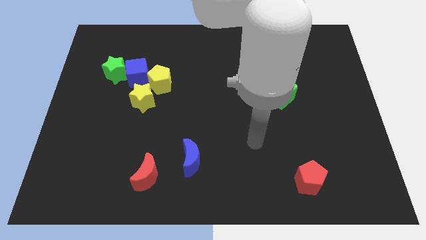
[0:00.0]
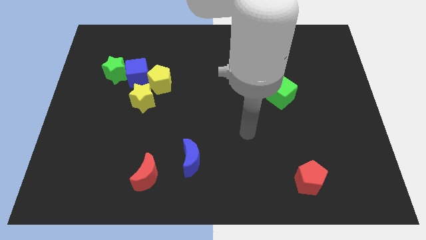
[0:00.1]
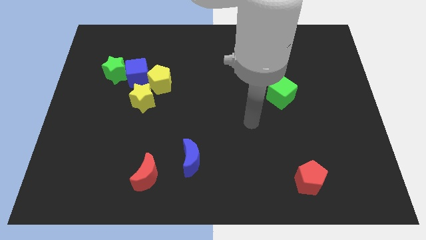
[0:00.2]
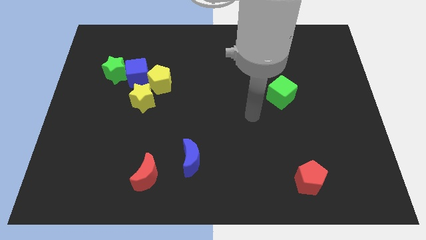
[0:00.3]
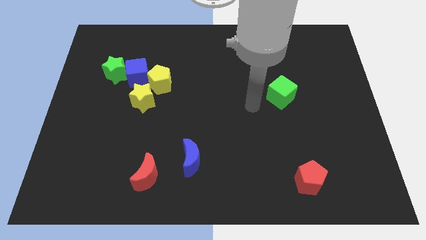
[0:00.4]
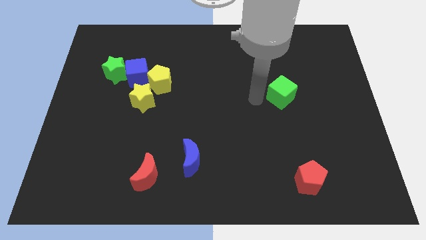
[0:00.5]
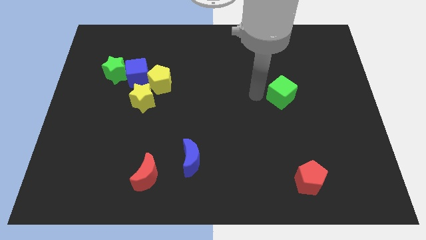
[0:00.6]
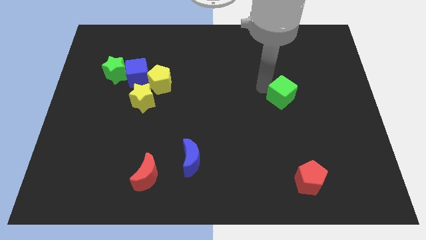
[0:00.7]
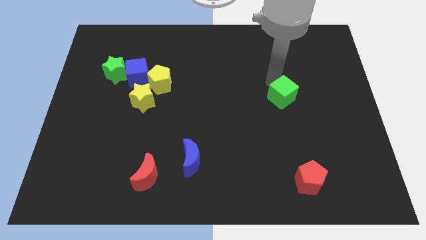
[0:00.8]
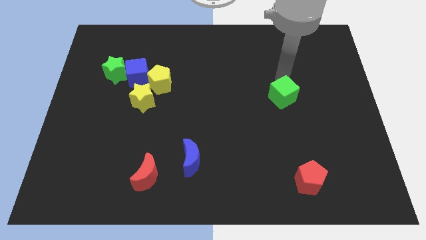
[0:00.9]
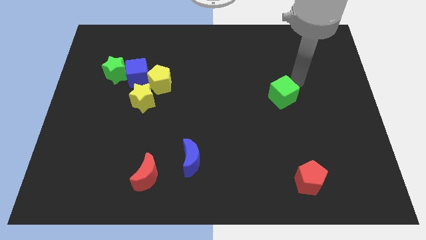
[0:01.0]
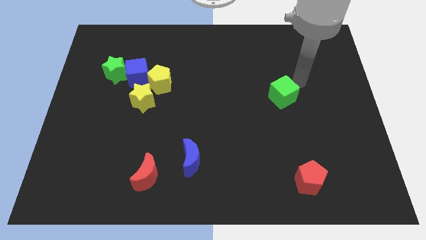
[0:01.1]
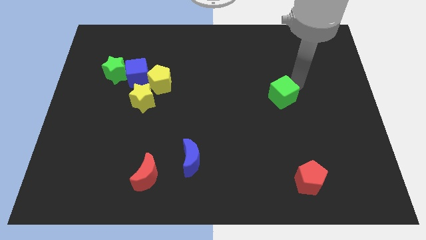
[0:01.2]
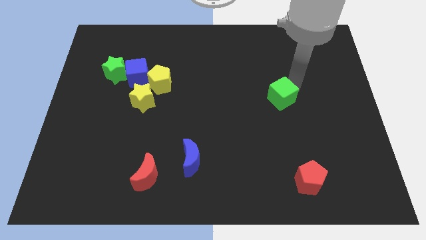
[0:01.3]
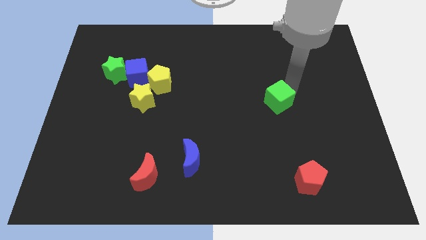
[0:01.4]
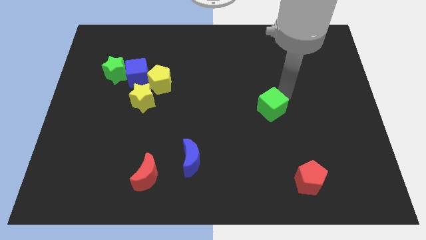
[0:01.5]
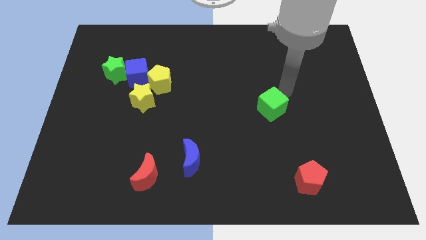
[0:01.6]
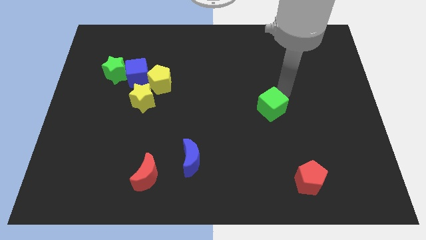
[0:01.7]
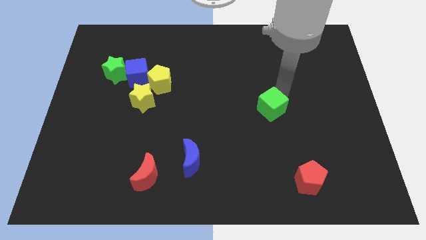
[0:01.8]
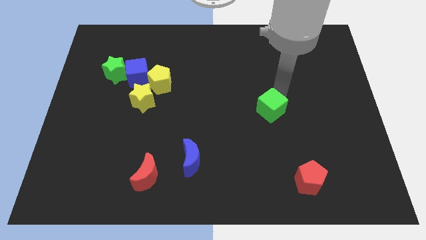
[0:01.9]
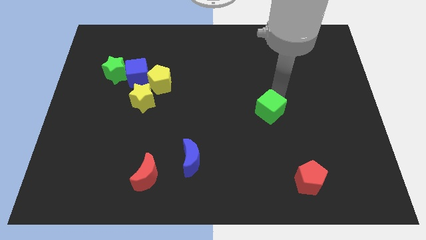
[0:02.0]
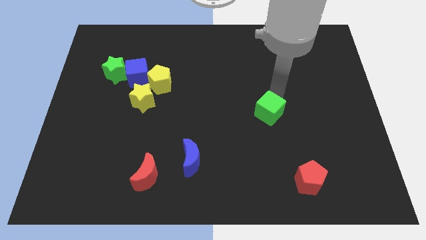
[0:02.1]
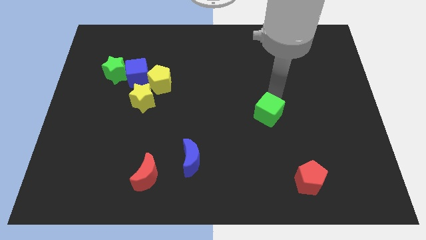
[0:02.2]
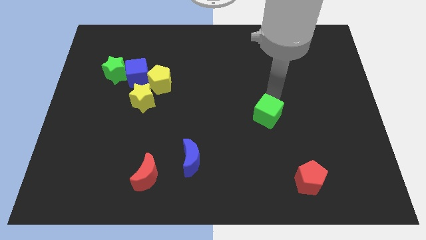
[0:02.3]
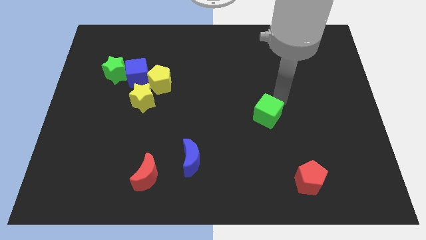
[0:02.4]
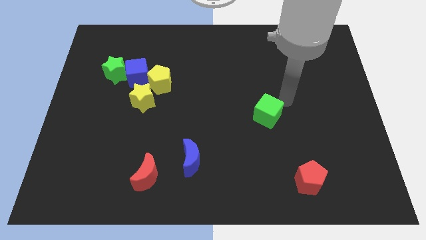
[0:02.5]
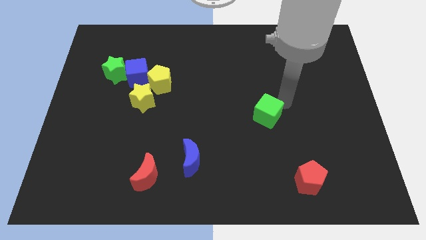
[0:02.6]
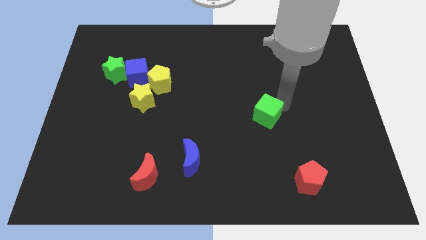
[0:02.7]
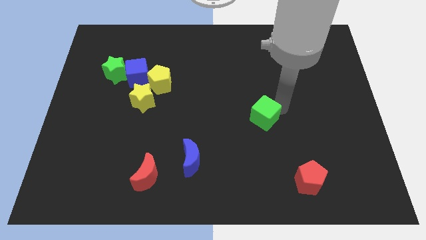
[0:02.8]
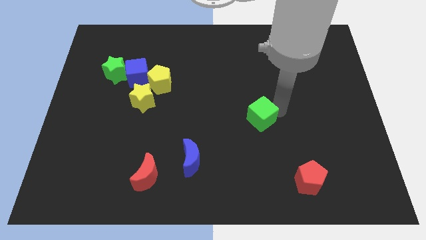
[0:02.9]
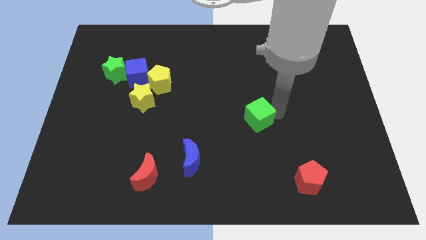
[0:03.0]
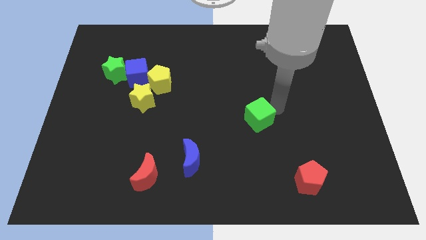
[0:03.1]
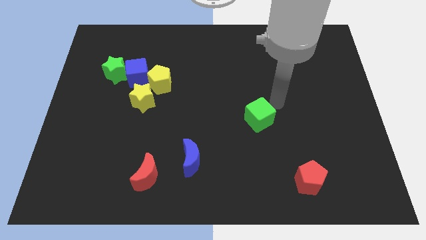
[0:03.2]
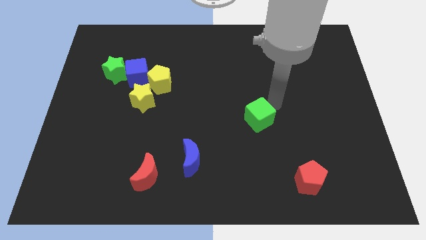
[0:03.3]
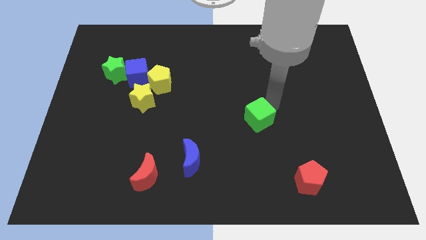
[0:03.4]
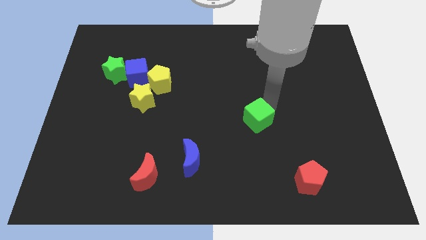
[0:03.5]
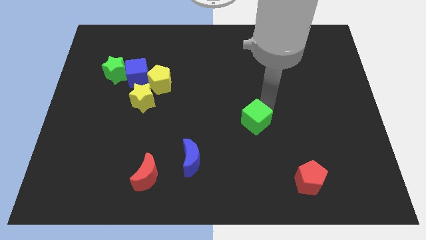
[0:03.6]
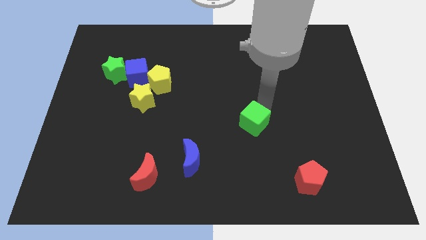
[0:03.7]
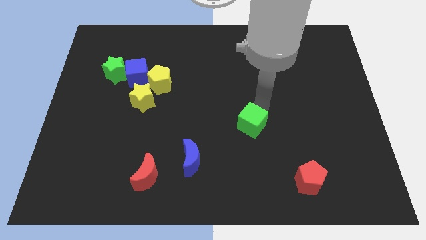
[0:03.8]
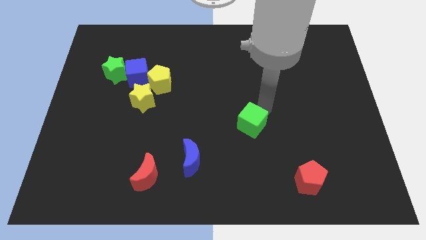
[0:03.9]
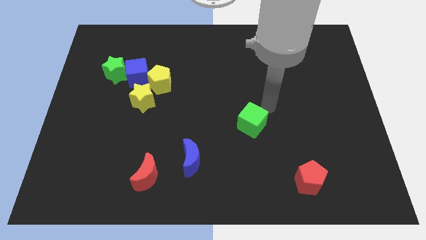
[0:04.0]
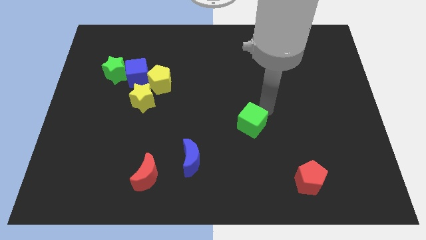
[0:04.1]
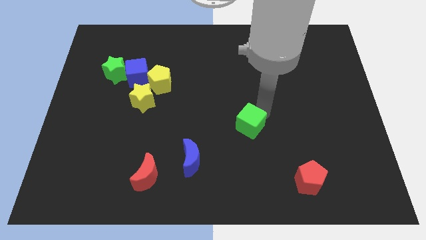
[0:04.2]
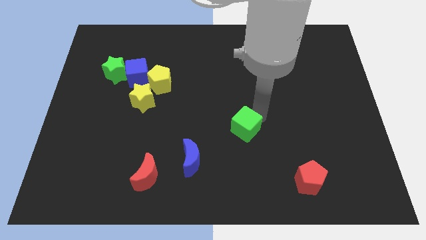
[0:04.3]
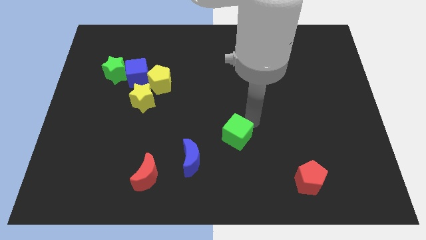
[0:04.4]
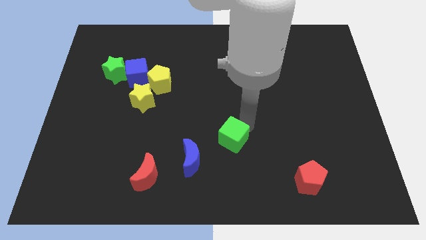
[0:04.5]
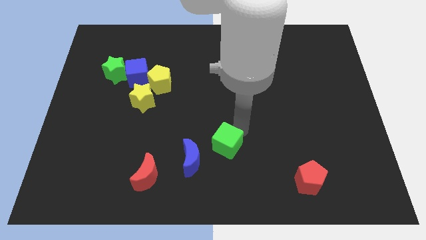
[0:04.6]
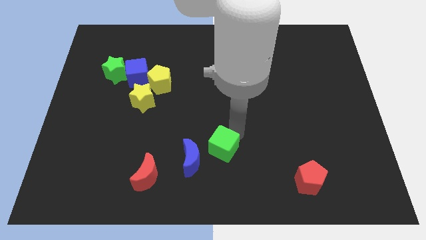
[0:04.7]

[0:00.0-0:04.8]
slide the green cube downwards and left diagonally

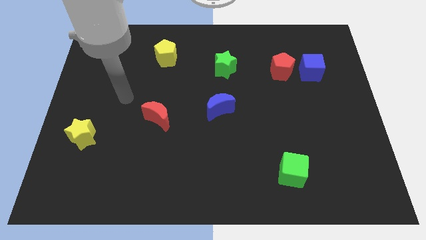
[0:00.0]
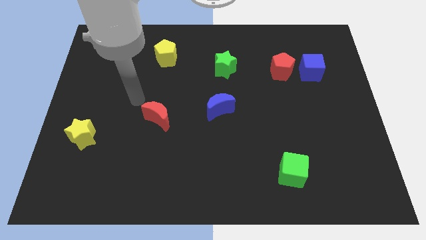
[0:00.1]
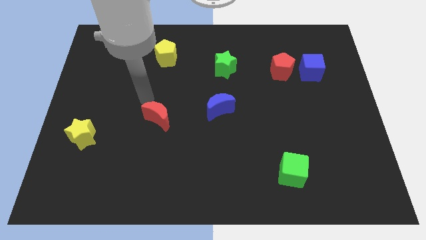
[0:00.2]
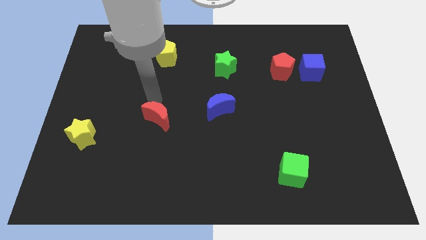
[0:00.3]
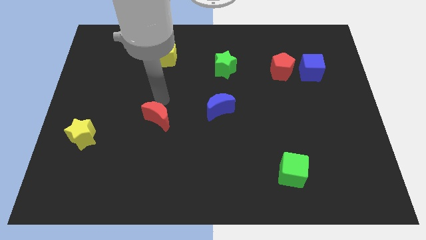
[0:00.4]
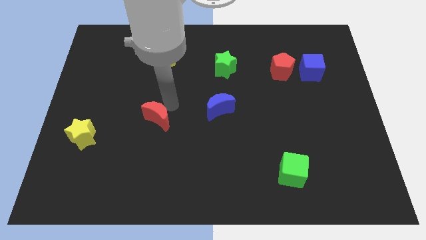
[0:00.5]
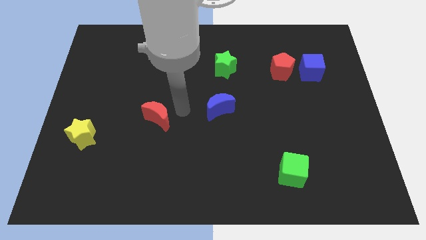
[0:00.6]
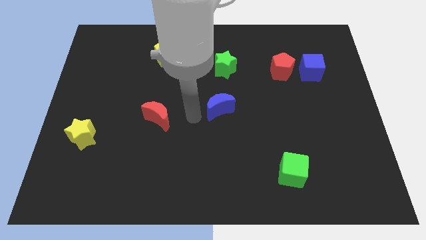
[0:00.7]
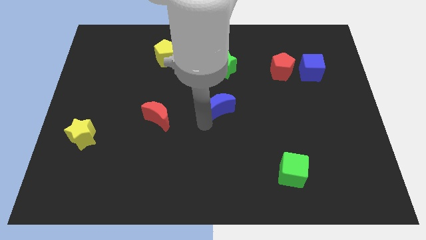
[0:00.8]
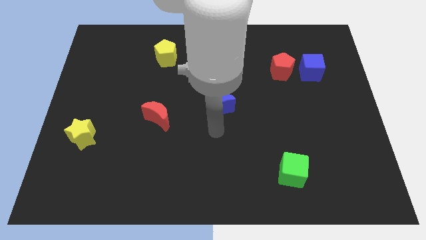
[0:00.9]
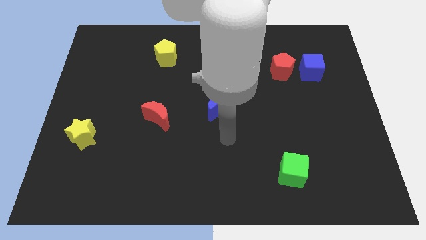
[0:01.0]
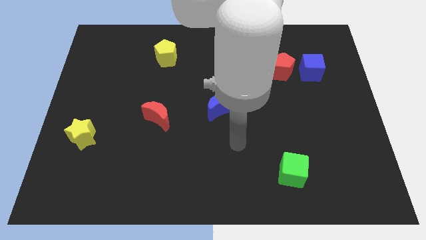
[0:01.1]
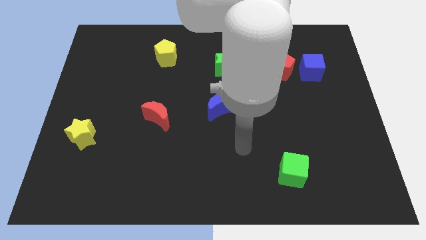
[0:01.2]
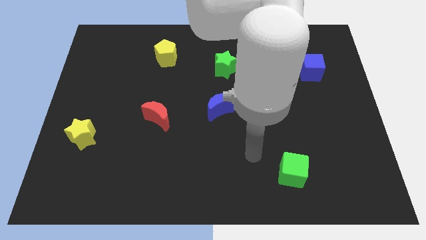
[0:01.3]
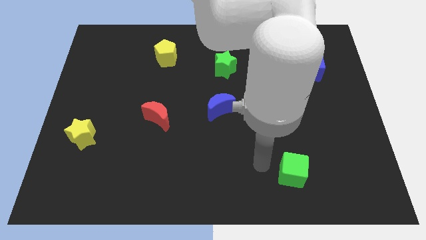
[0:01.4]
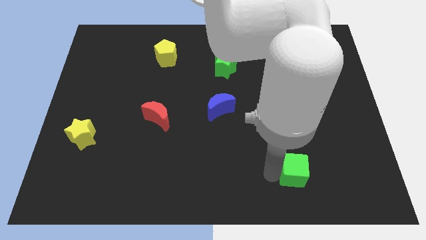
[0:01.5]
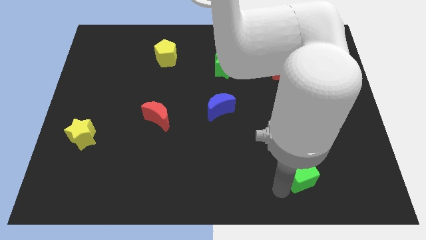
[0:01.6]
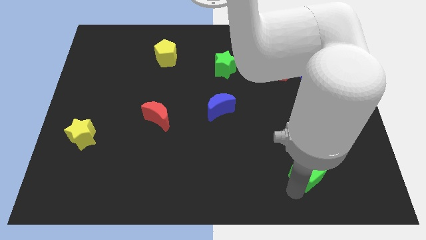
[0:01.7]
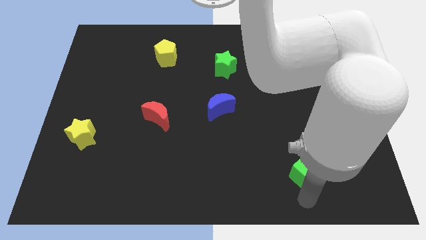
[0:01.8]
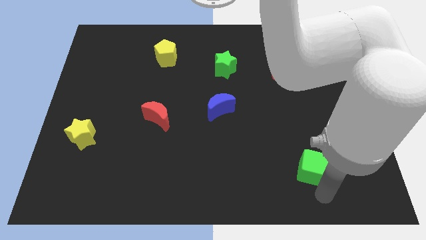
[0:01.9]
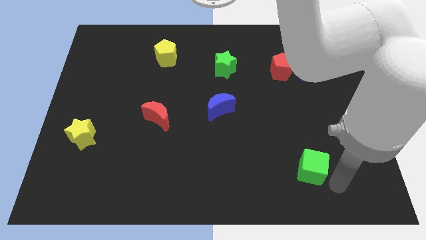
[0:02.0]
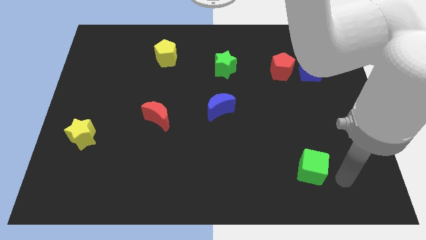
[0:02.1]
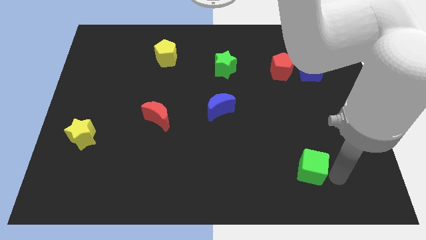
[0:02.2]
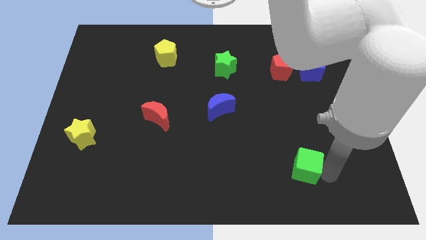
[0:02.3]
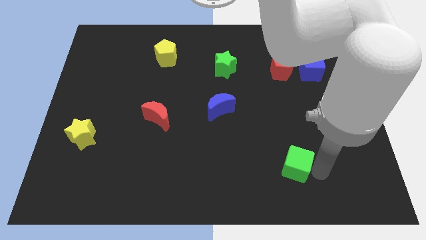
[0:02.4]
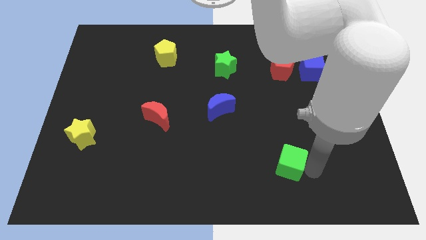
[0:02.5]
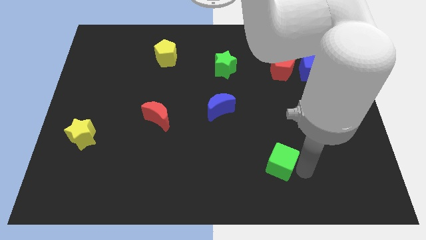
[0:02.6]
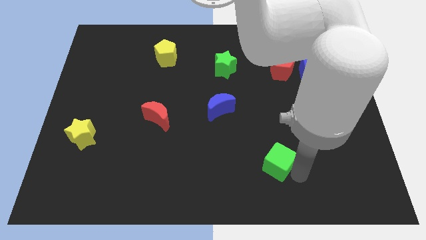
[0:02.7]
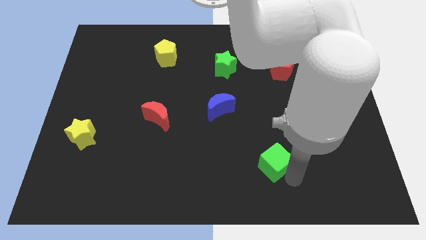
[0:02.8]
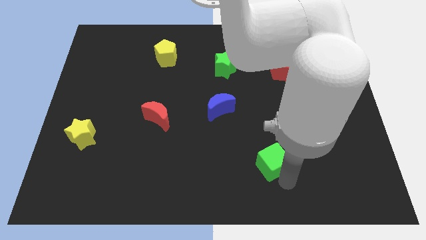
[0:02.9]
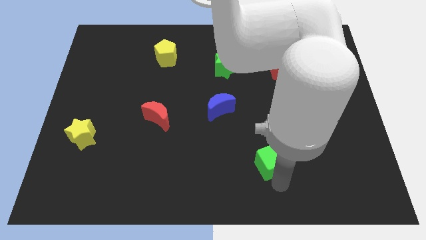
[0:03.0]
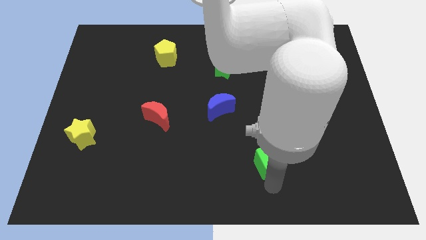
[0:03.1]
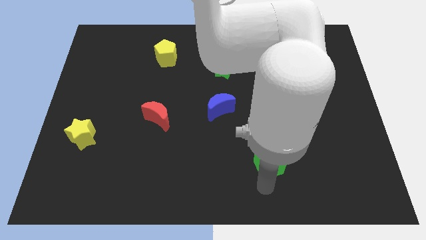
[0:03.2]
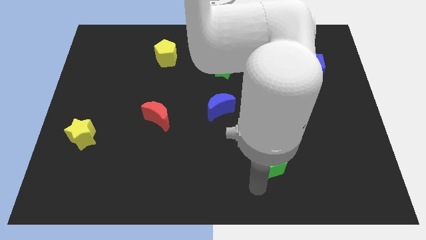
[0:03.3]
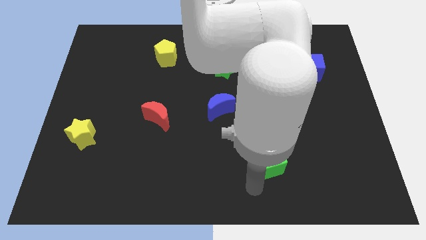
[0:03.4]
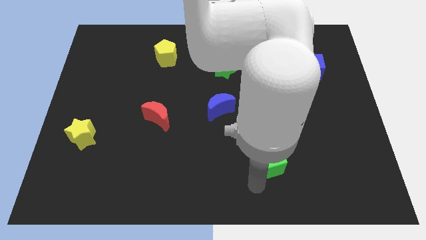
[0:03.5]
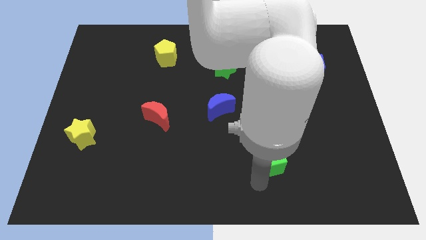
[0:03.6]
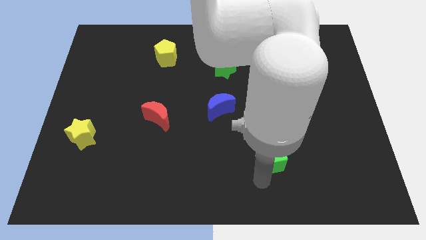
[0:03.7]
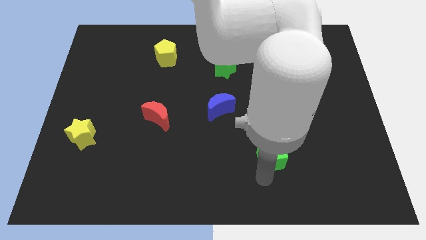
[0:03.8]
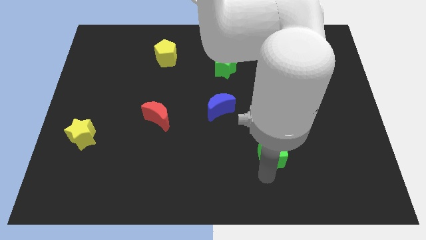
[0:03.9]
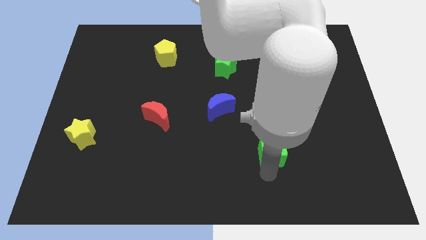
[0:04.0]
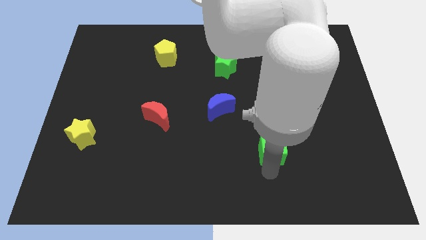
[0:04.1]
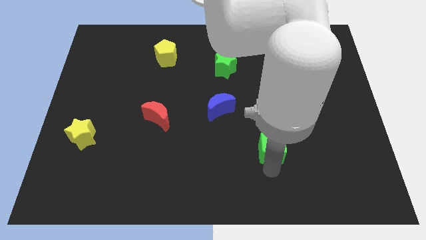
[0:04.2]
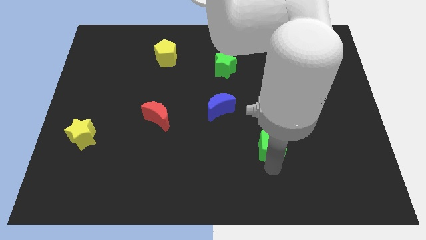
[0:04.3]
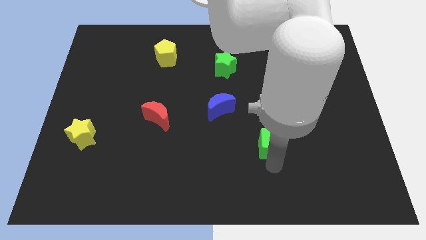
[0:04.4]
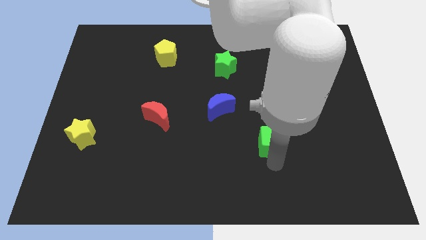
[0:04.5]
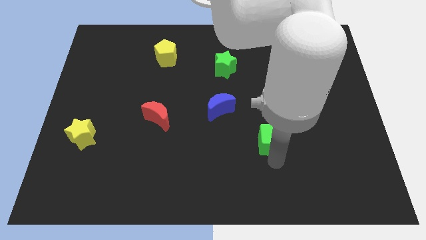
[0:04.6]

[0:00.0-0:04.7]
slide the green cube upwards slightly
